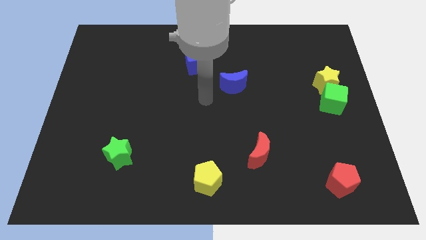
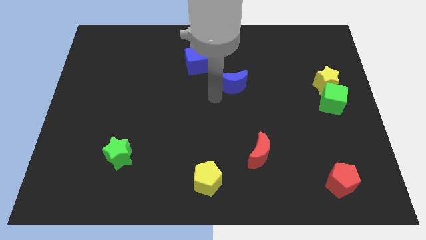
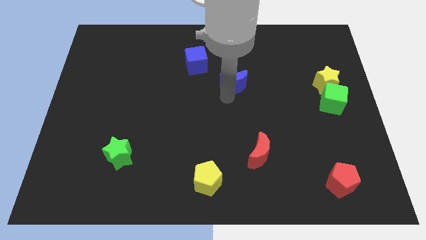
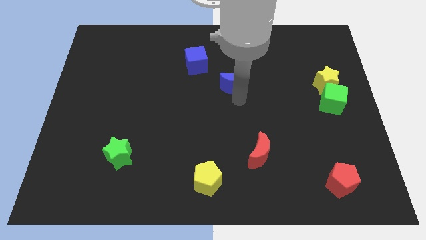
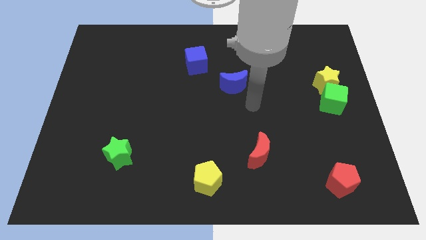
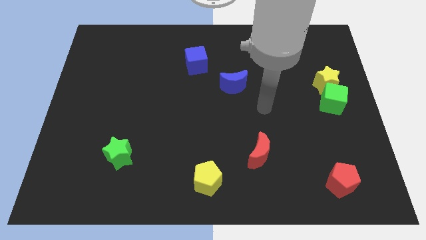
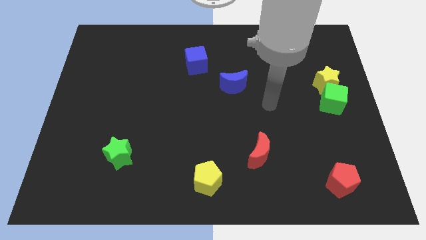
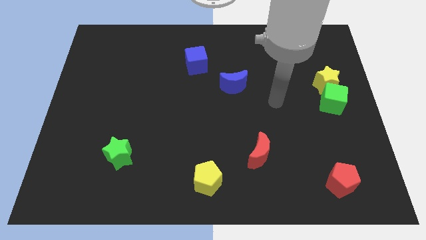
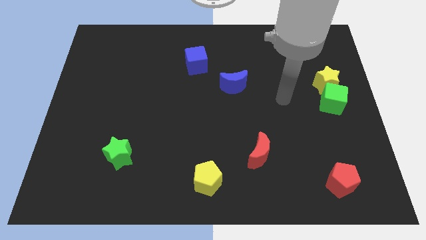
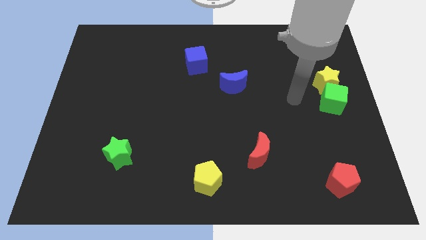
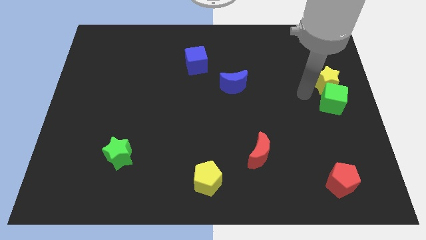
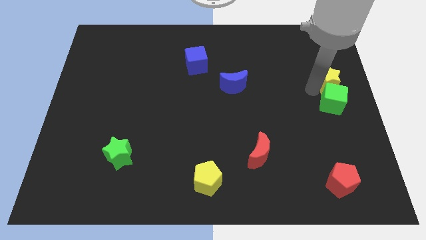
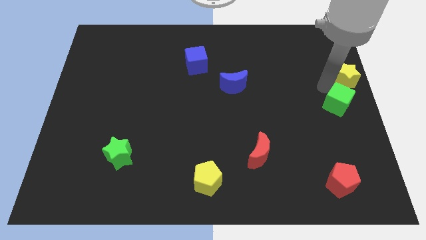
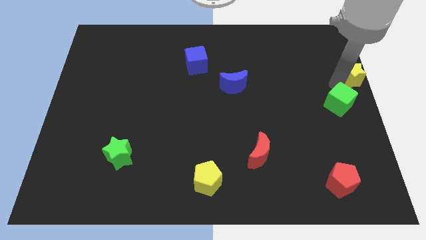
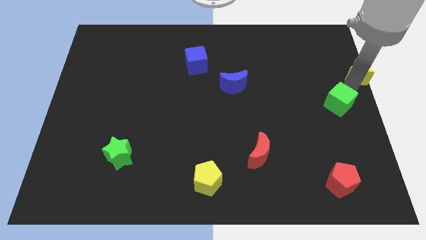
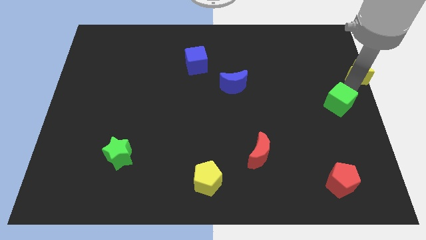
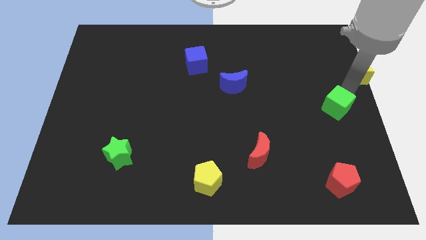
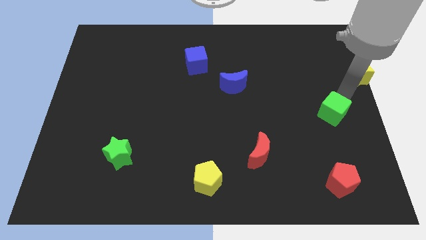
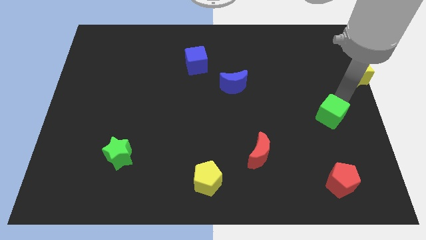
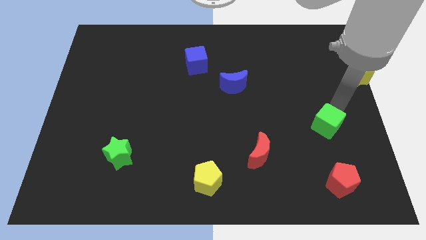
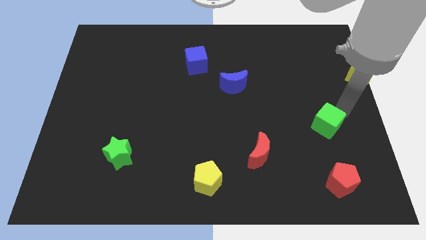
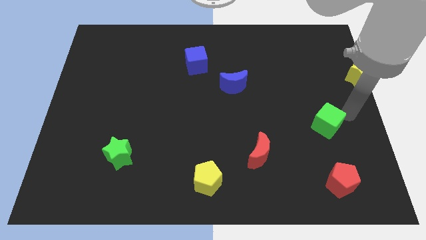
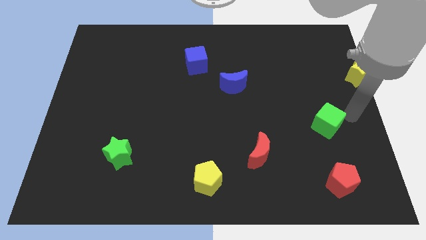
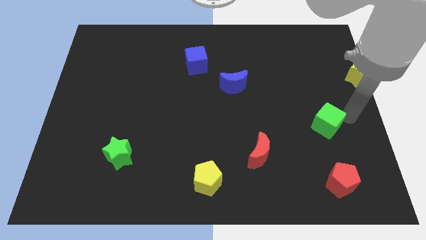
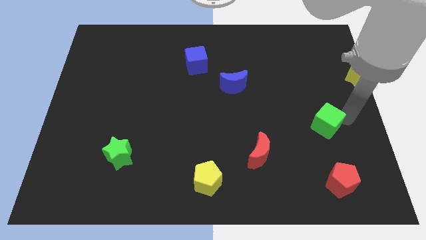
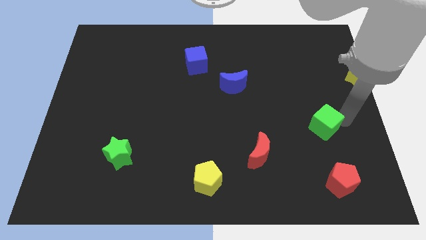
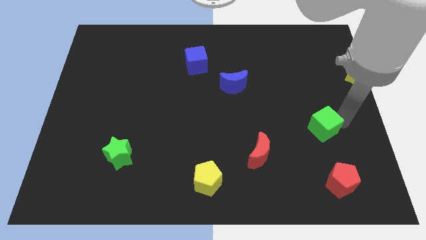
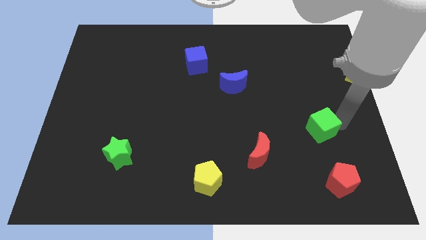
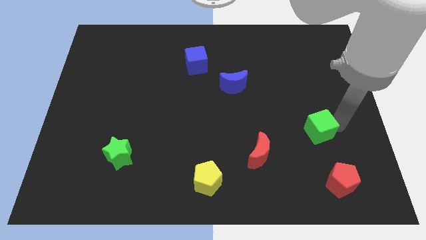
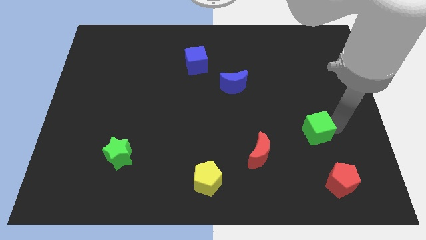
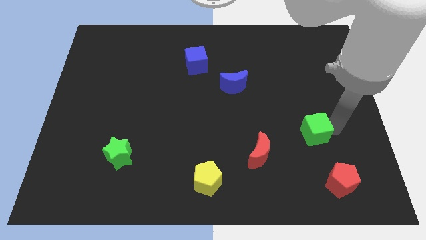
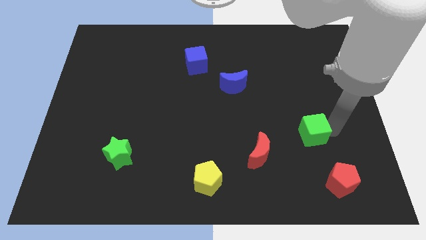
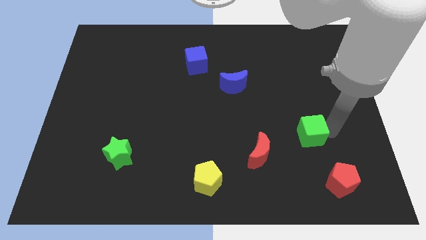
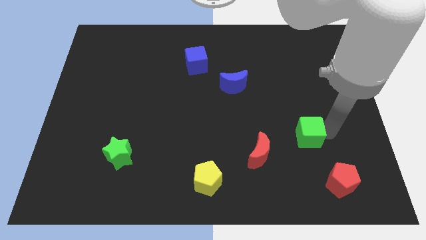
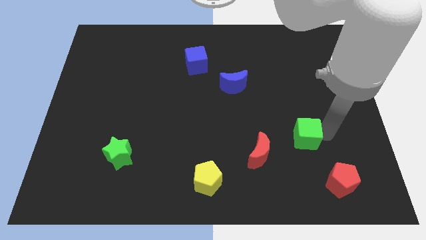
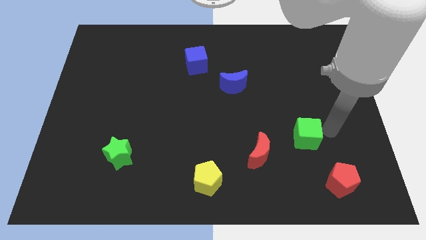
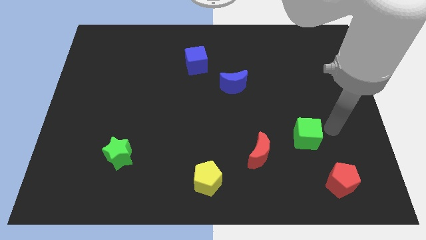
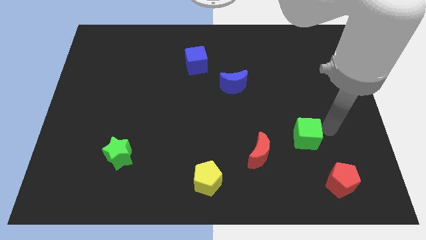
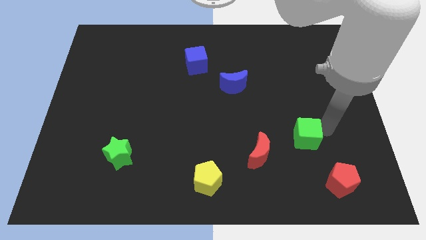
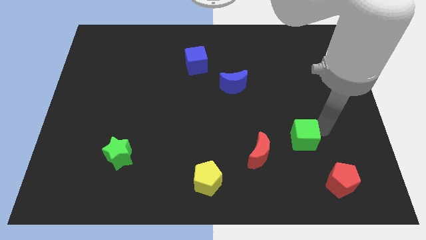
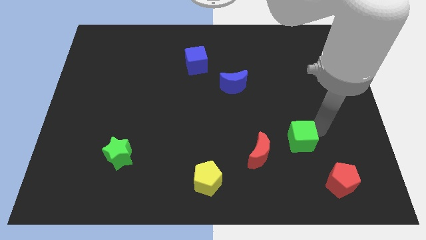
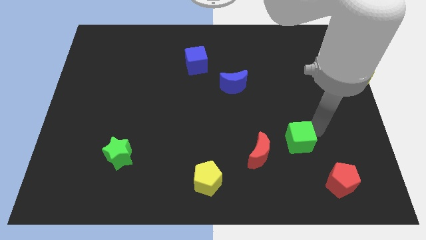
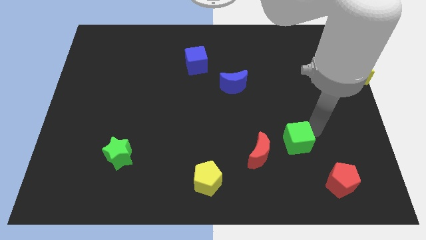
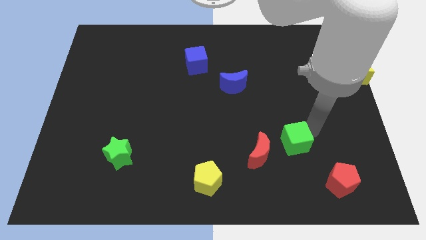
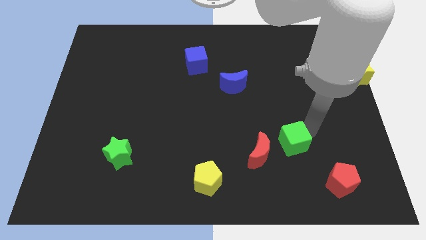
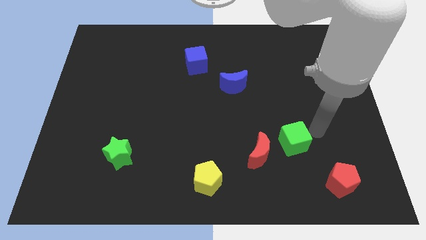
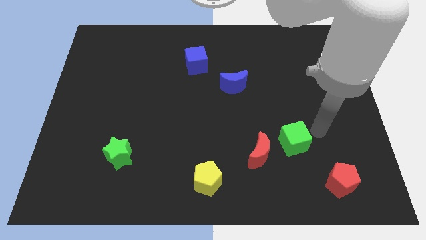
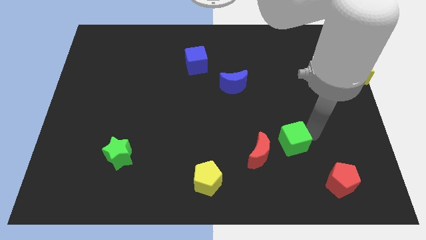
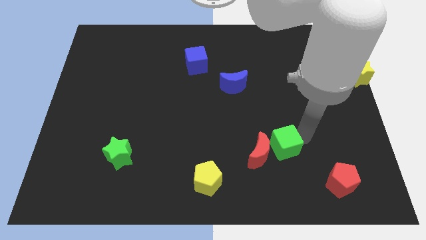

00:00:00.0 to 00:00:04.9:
move the green cube towards the red moon

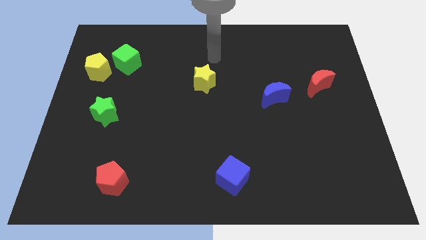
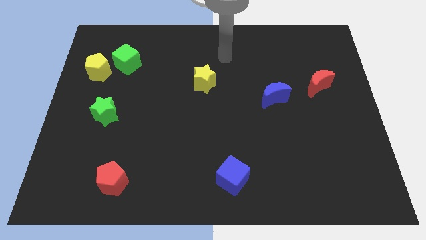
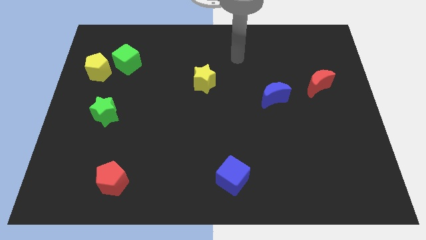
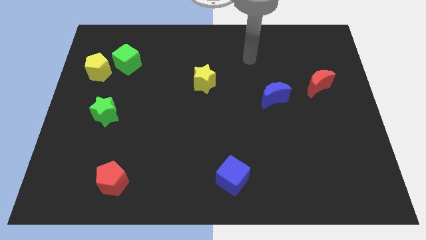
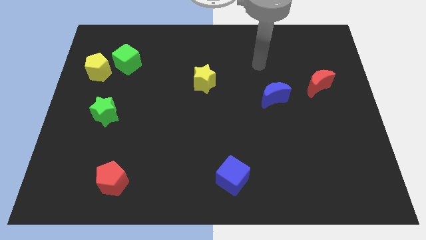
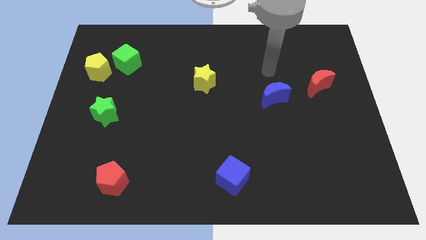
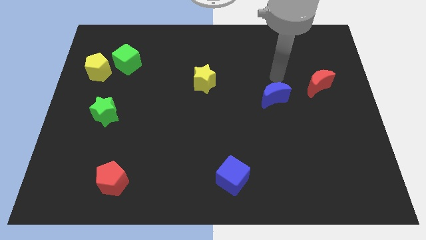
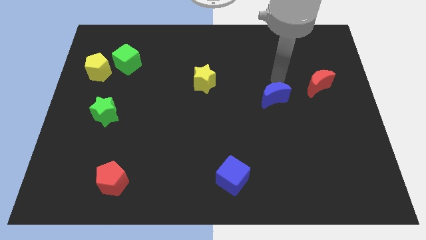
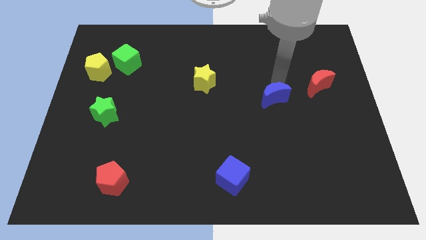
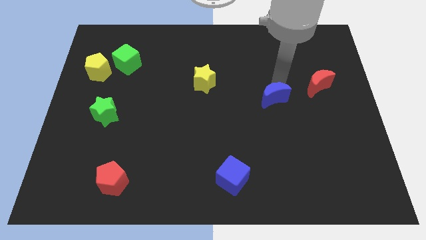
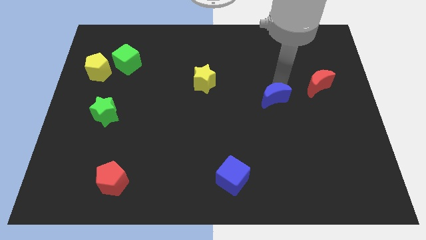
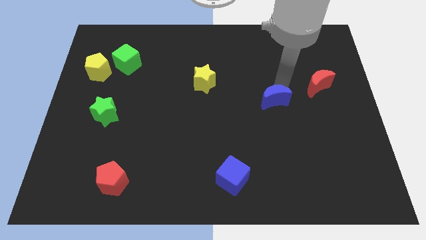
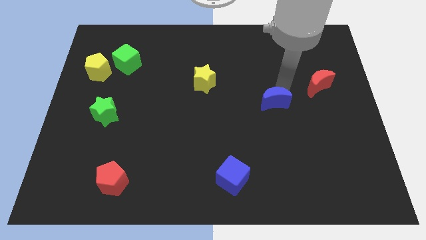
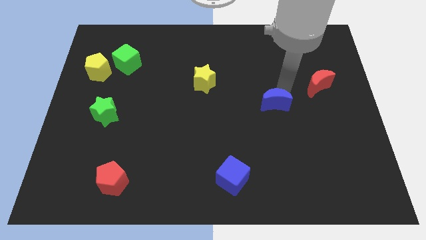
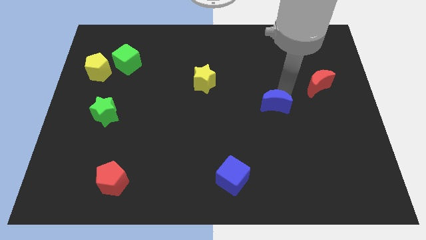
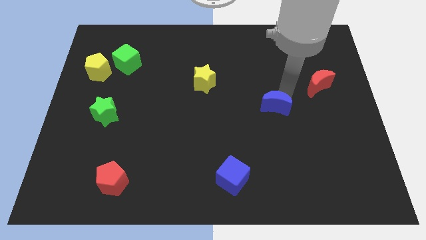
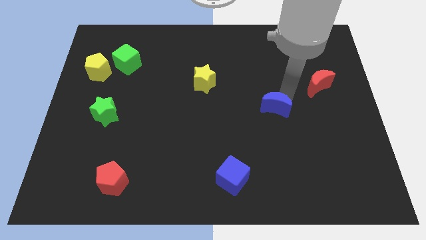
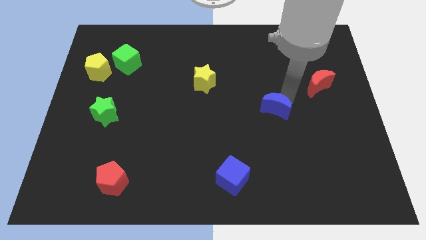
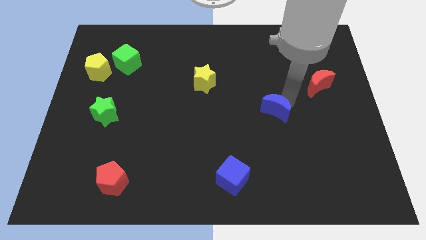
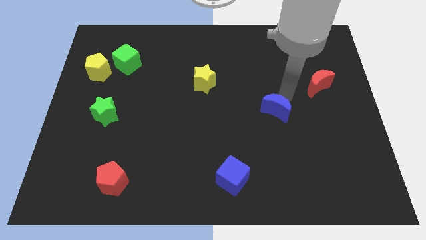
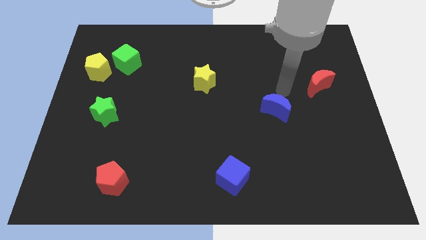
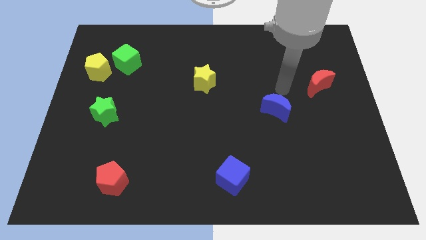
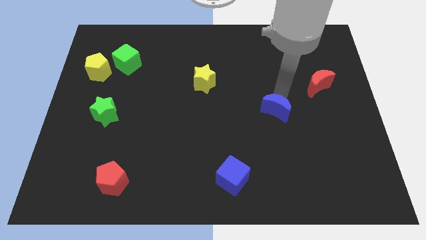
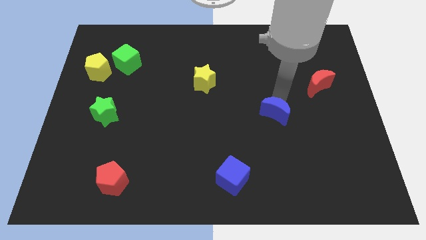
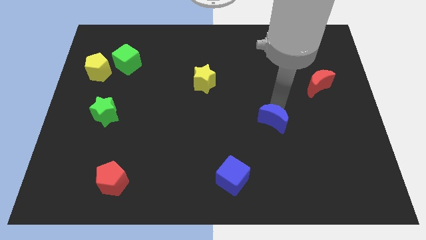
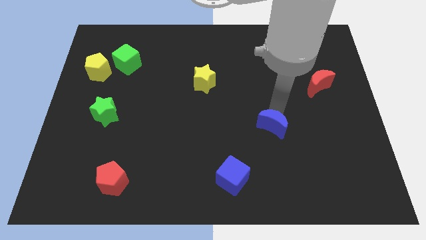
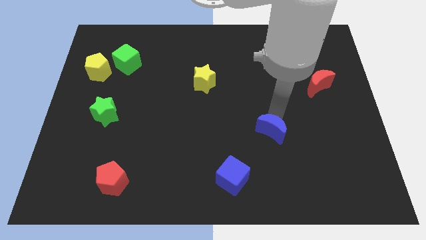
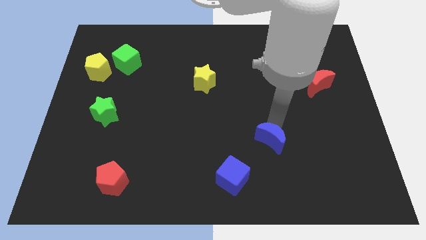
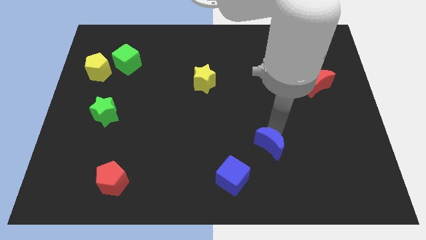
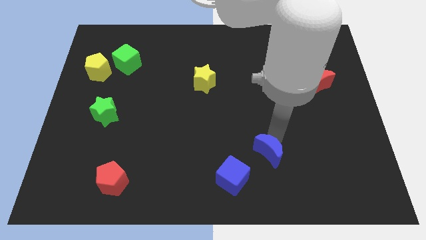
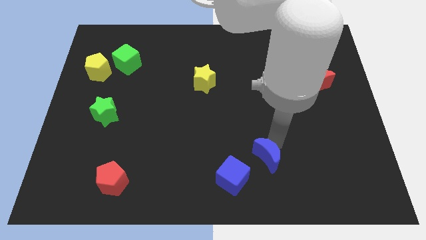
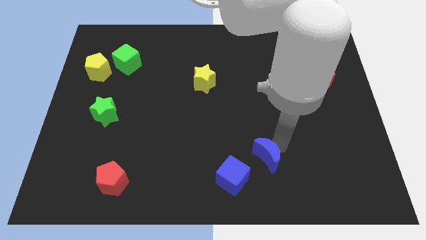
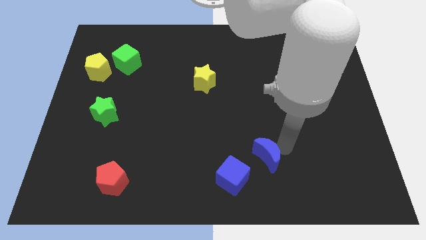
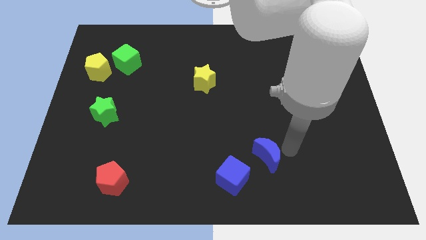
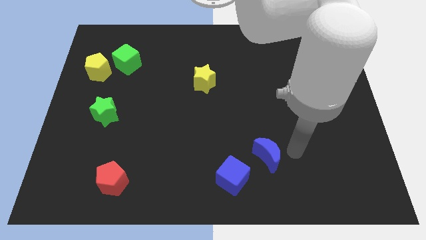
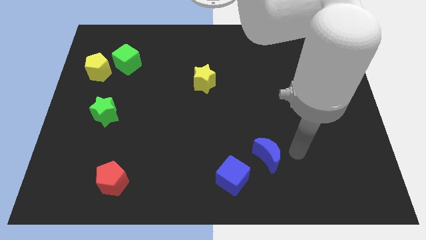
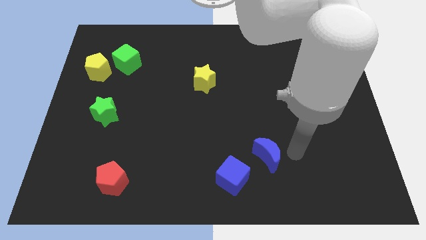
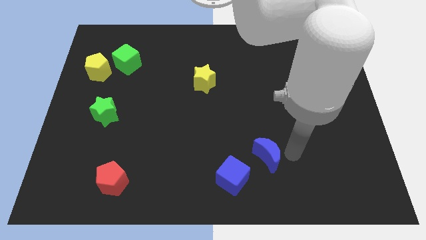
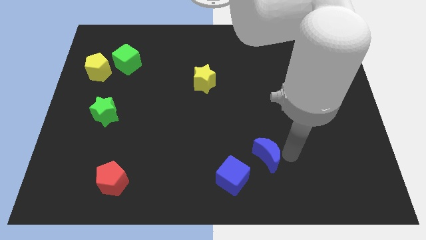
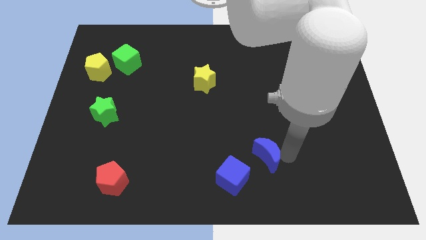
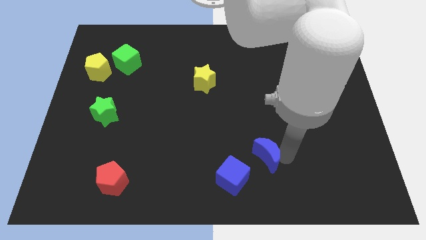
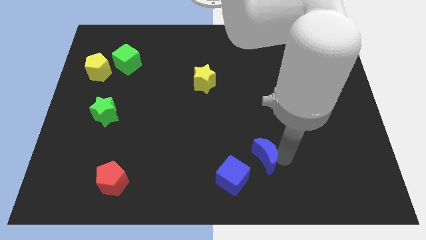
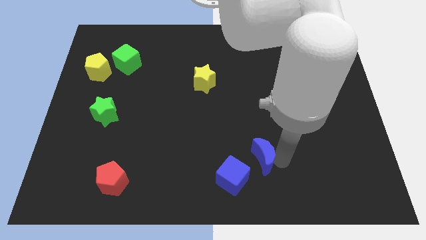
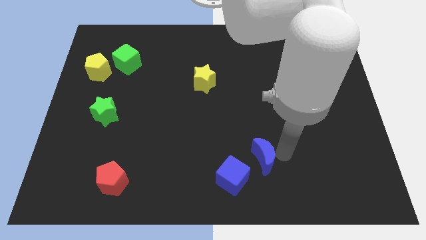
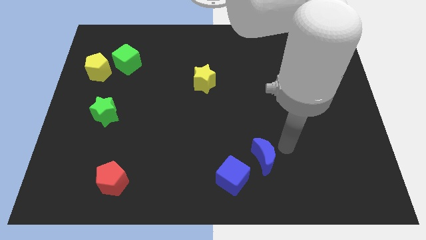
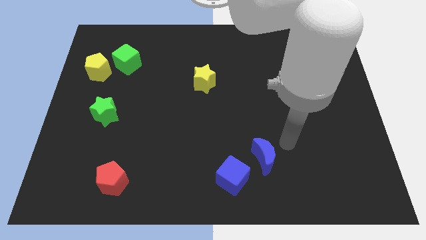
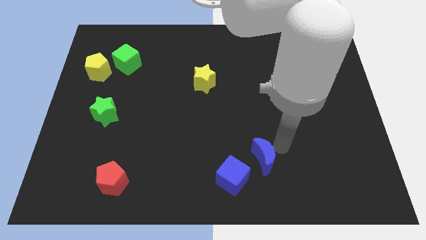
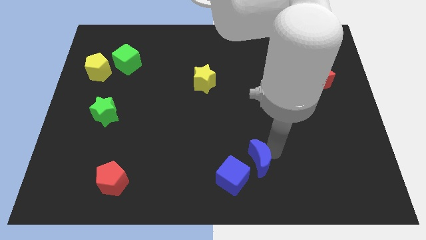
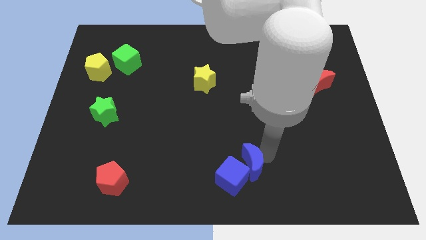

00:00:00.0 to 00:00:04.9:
push the blue moon close to the blue cube
